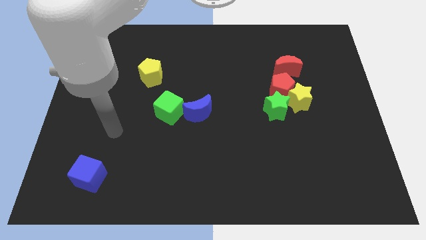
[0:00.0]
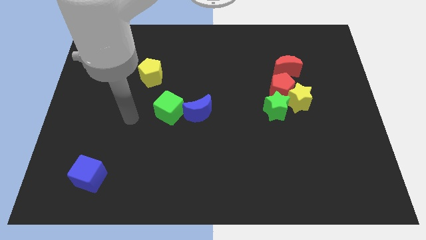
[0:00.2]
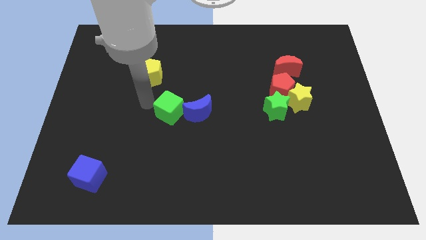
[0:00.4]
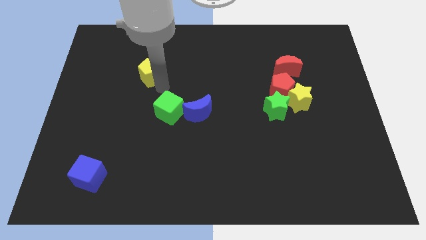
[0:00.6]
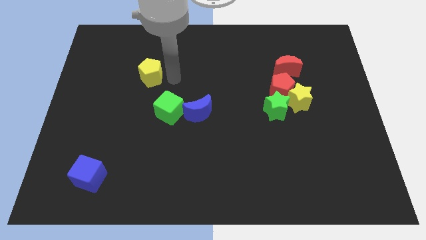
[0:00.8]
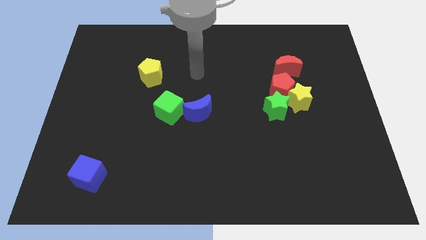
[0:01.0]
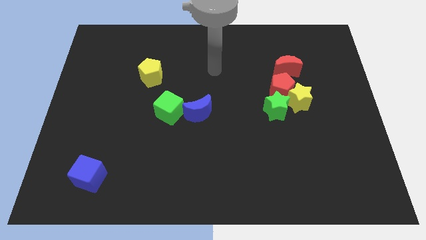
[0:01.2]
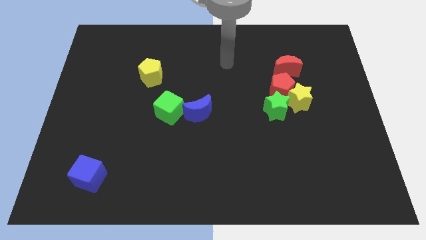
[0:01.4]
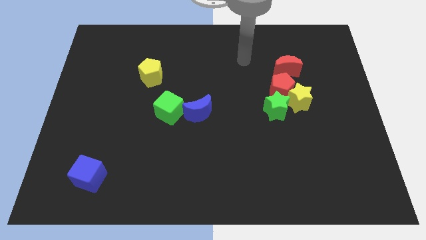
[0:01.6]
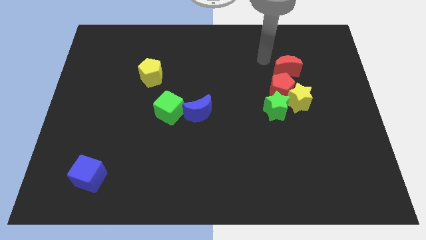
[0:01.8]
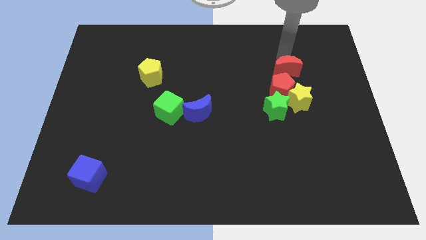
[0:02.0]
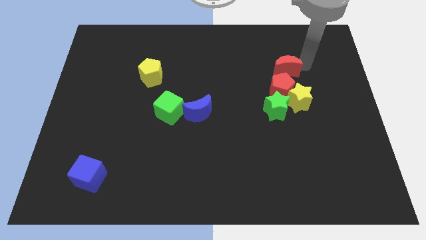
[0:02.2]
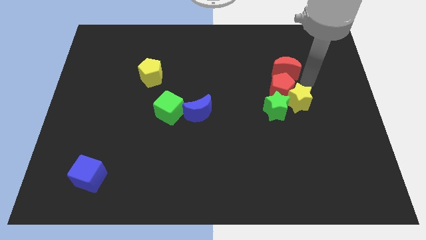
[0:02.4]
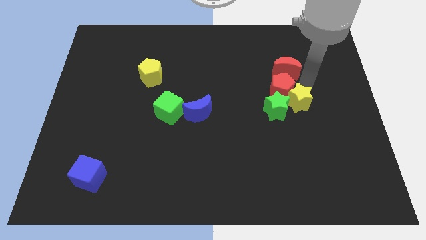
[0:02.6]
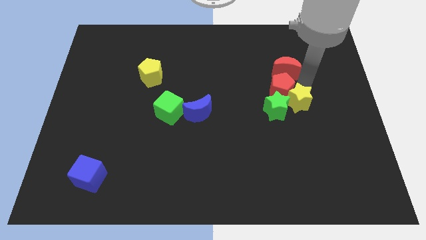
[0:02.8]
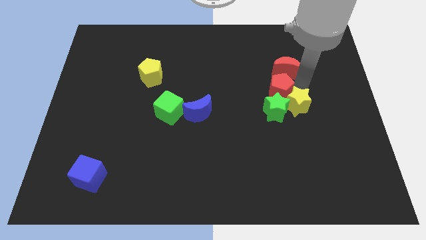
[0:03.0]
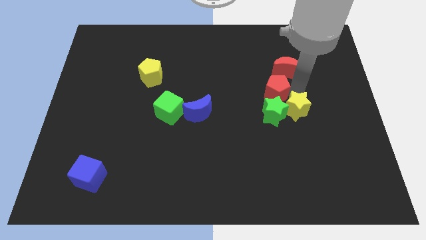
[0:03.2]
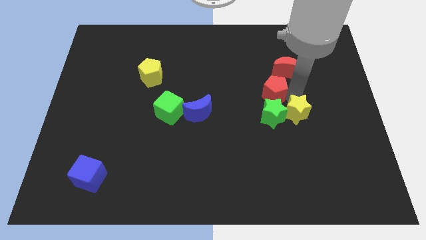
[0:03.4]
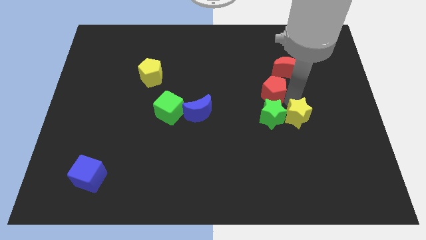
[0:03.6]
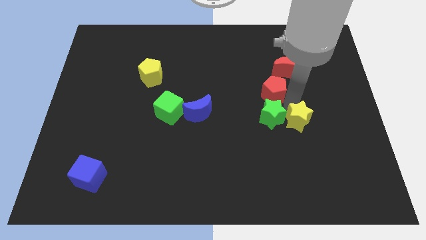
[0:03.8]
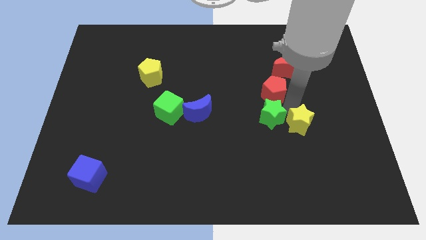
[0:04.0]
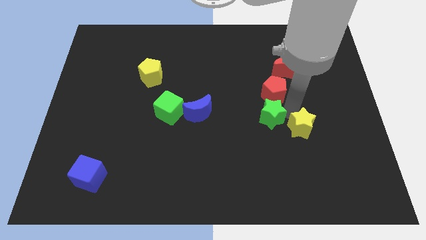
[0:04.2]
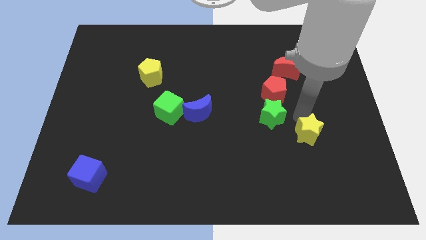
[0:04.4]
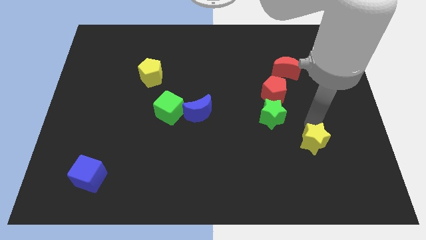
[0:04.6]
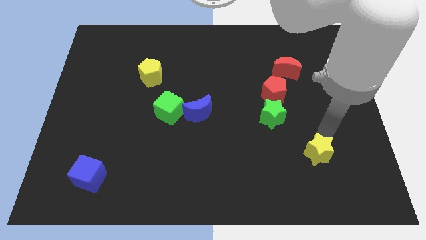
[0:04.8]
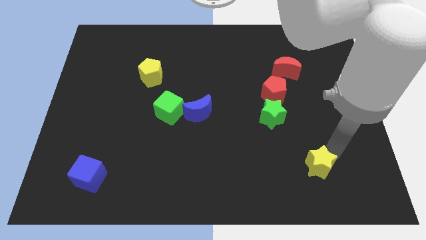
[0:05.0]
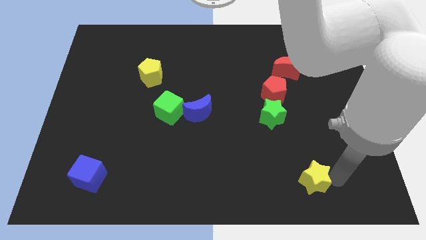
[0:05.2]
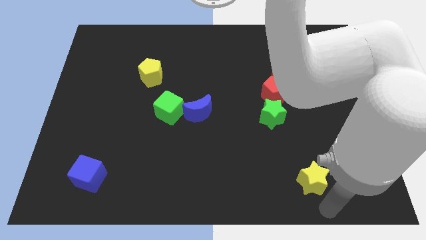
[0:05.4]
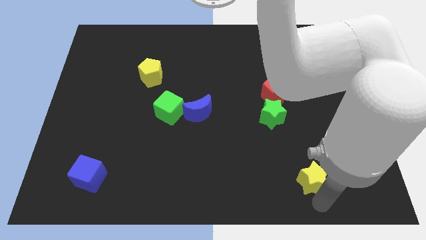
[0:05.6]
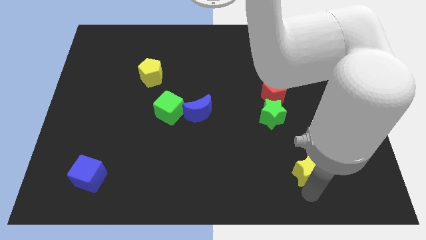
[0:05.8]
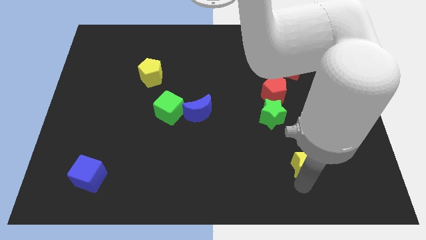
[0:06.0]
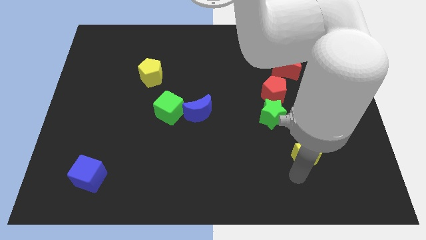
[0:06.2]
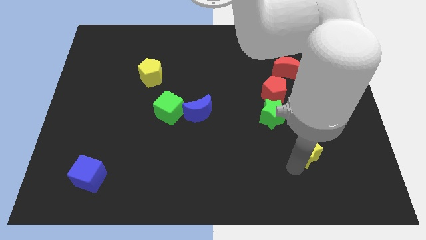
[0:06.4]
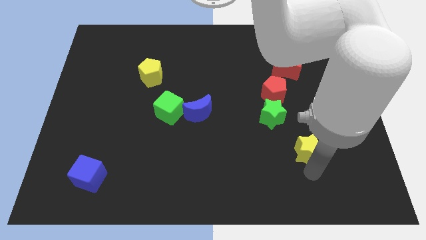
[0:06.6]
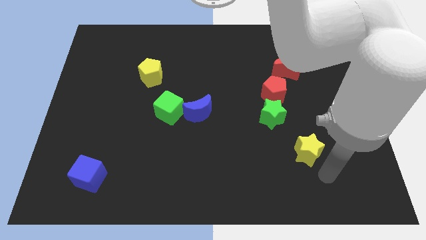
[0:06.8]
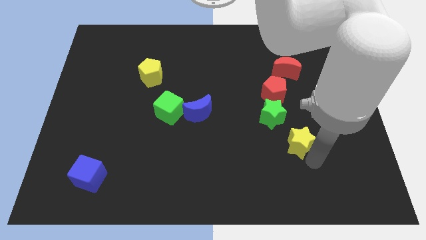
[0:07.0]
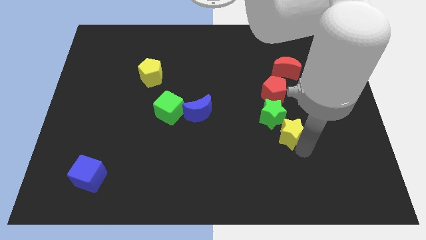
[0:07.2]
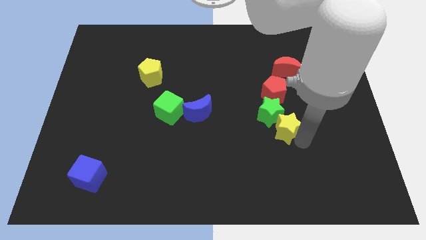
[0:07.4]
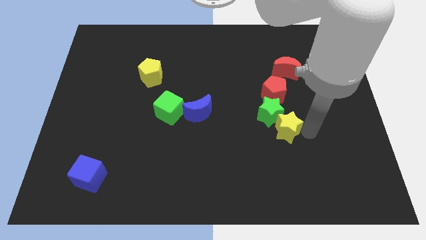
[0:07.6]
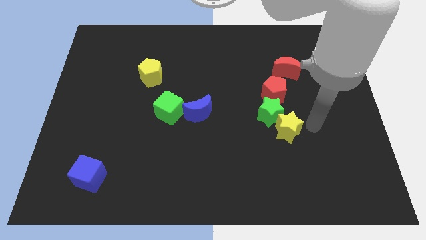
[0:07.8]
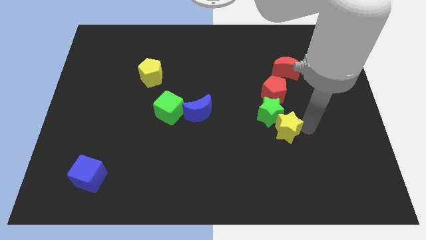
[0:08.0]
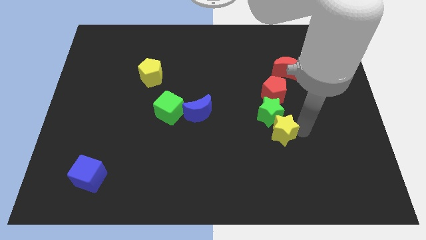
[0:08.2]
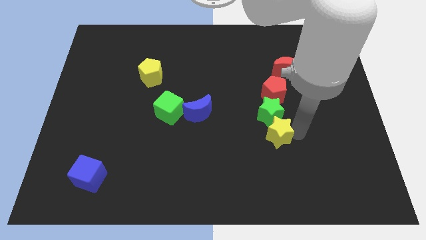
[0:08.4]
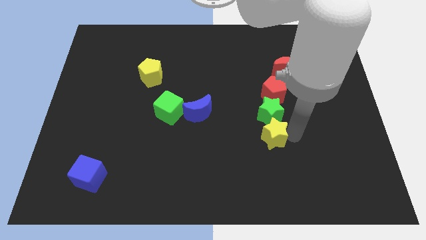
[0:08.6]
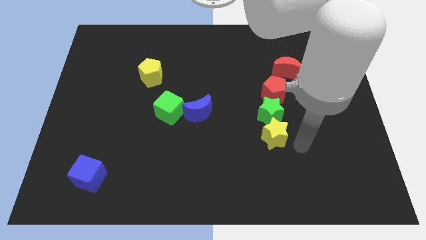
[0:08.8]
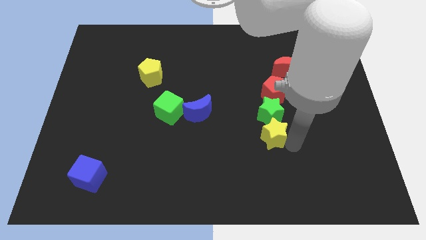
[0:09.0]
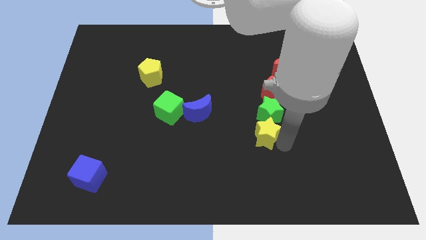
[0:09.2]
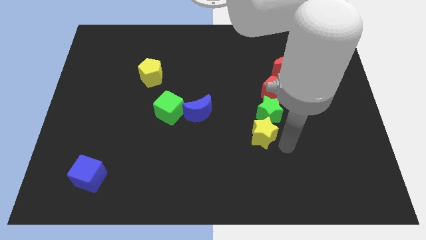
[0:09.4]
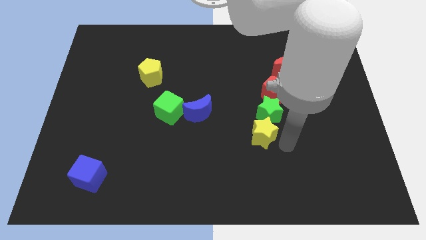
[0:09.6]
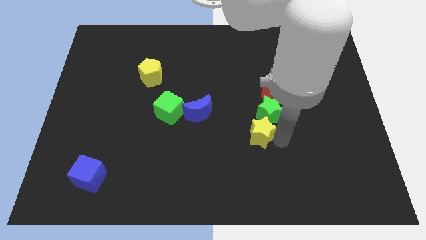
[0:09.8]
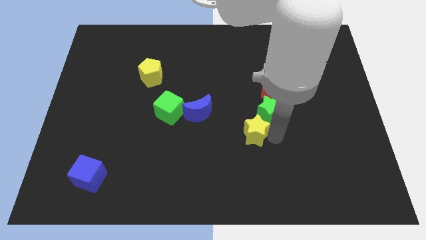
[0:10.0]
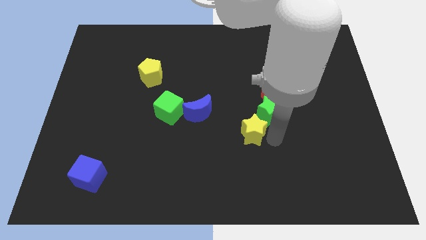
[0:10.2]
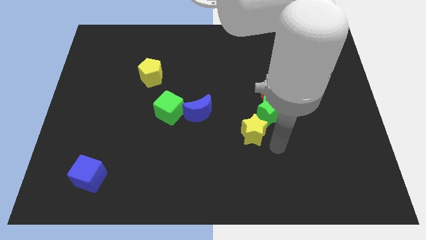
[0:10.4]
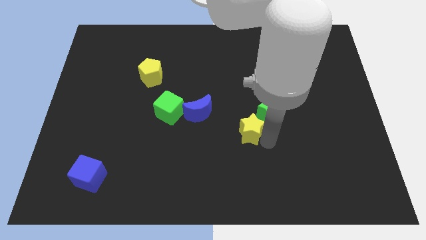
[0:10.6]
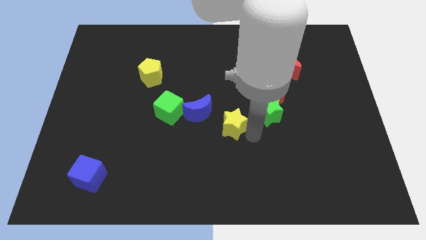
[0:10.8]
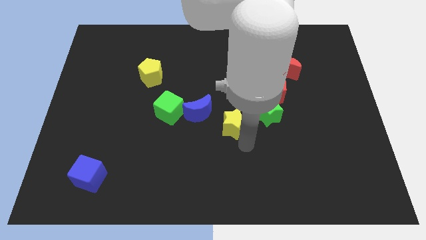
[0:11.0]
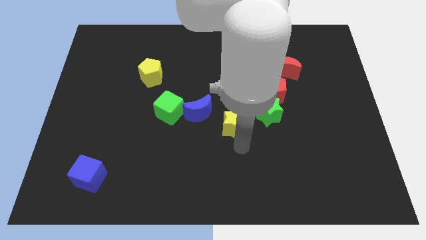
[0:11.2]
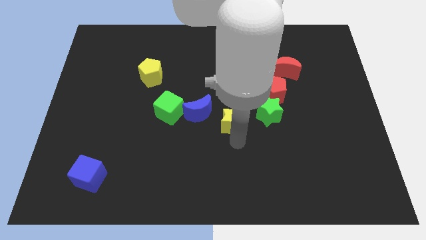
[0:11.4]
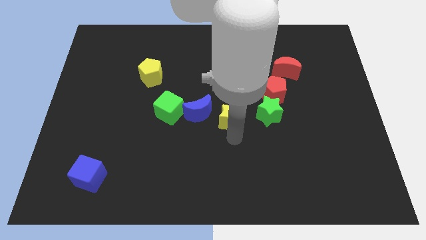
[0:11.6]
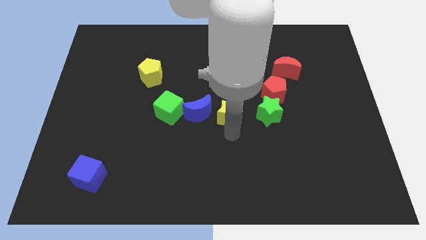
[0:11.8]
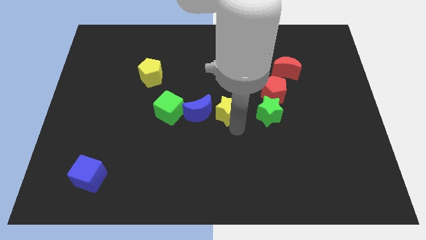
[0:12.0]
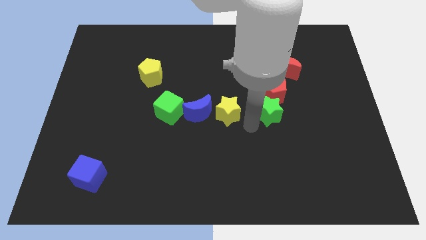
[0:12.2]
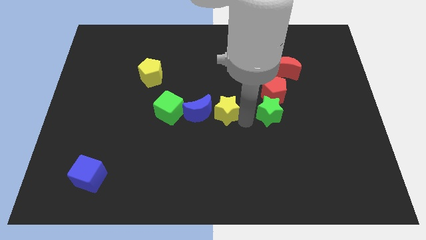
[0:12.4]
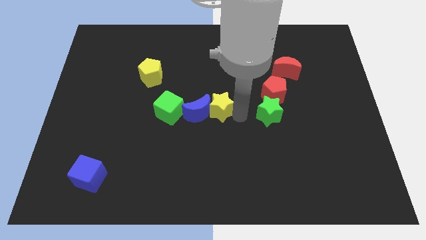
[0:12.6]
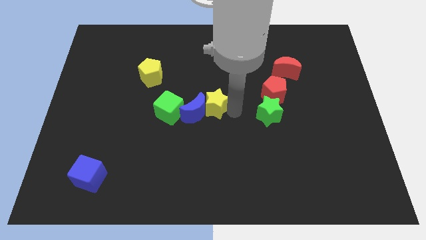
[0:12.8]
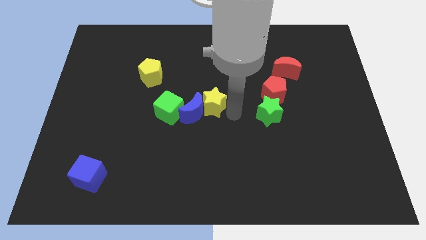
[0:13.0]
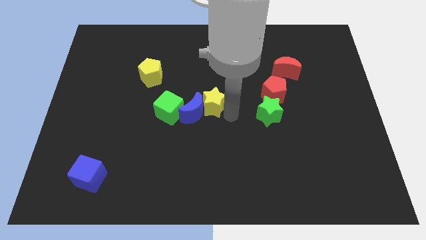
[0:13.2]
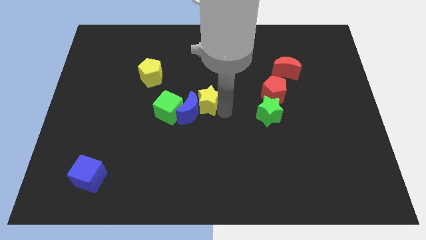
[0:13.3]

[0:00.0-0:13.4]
push the yellow star diagonally up and to the right of the green cube

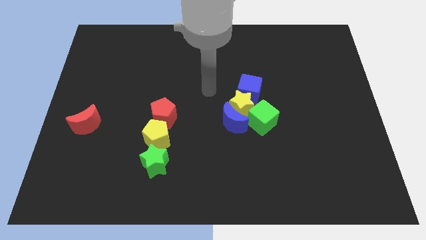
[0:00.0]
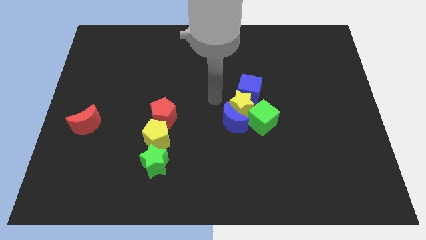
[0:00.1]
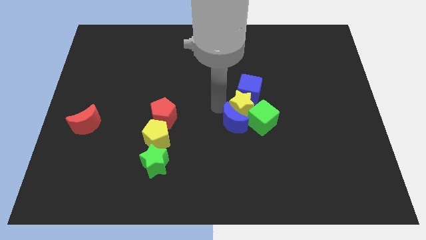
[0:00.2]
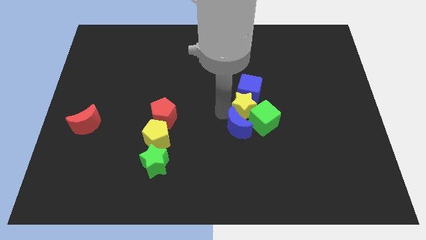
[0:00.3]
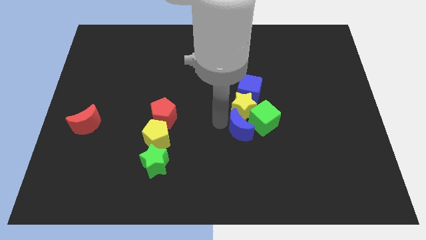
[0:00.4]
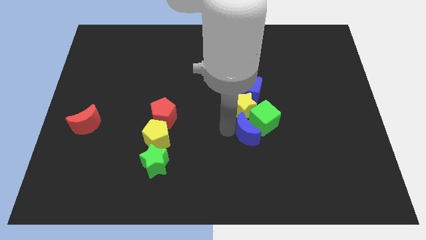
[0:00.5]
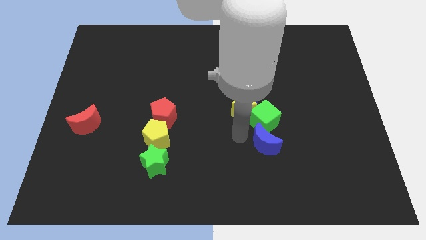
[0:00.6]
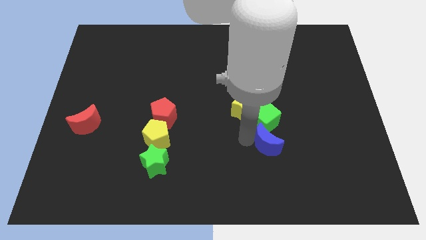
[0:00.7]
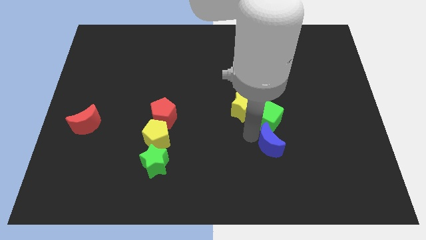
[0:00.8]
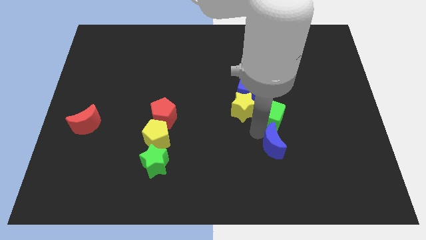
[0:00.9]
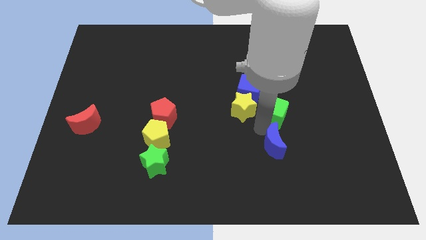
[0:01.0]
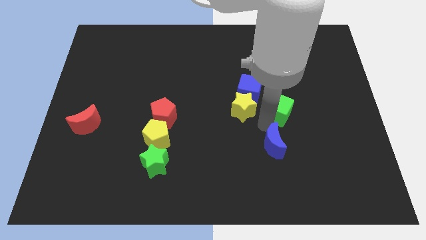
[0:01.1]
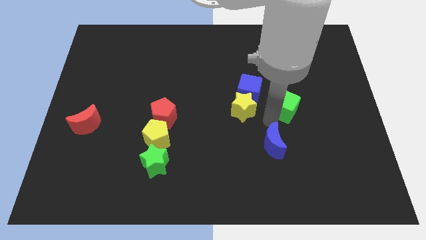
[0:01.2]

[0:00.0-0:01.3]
put the green cube right of the blue cube
